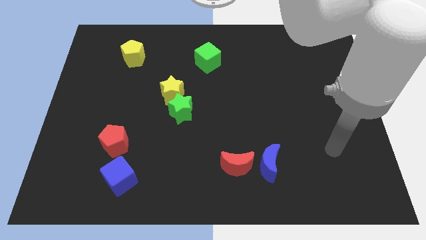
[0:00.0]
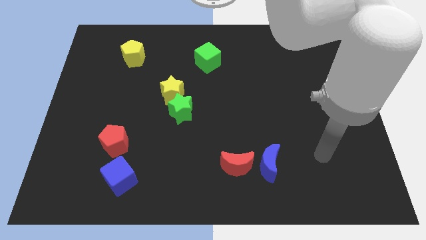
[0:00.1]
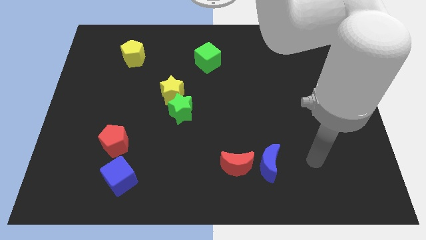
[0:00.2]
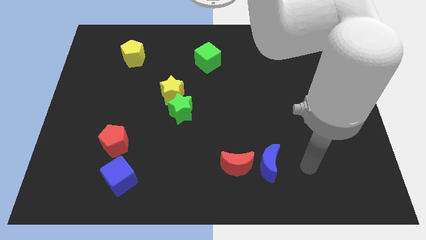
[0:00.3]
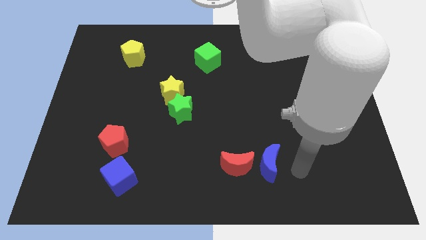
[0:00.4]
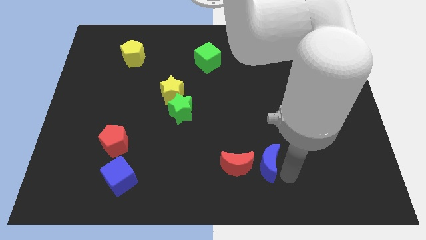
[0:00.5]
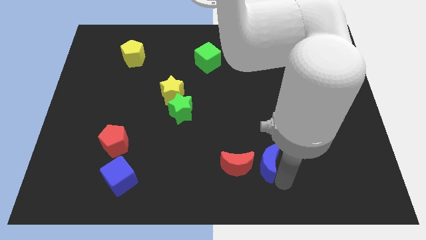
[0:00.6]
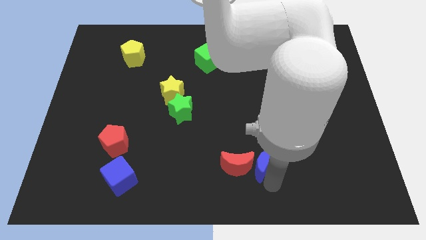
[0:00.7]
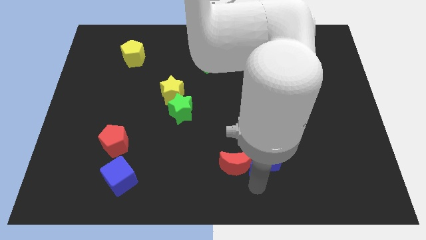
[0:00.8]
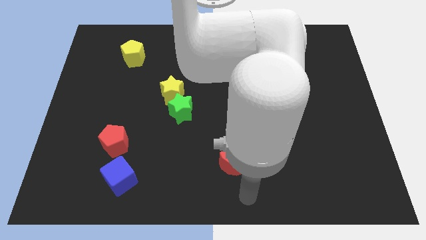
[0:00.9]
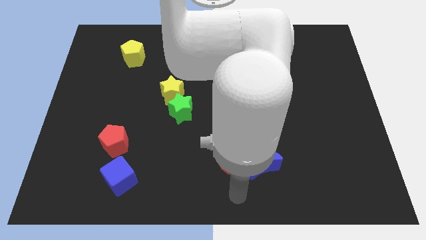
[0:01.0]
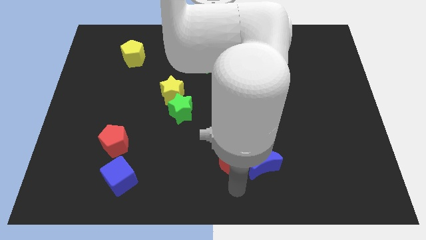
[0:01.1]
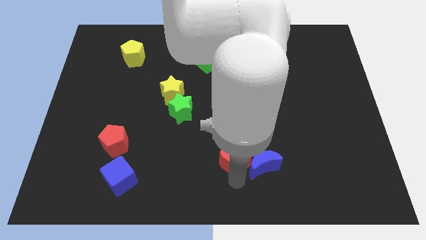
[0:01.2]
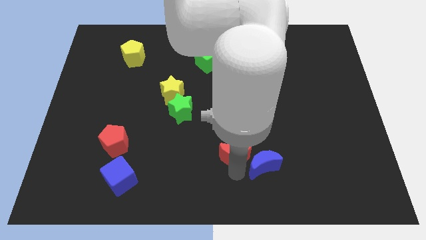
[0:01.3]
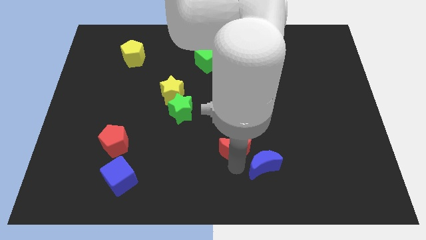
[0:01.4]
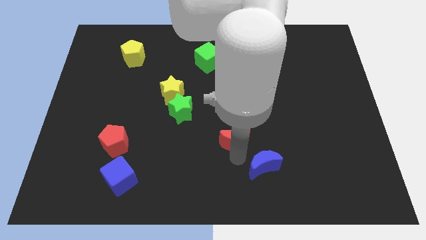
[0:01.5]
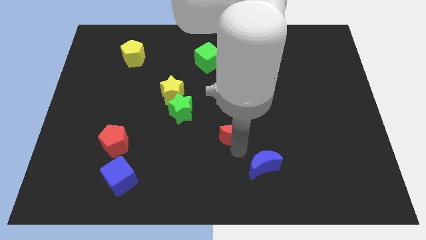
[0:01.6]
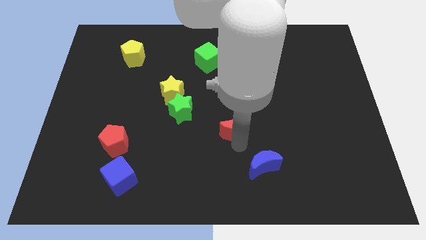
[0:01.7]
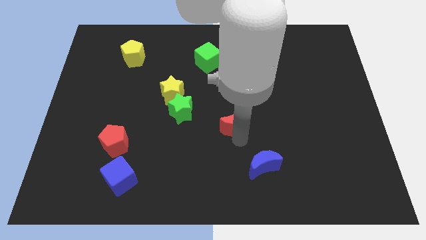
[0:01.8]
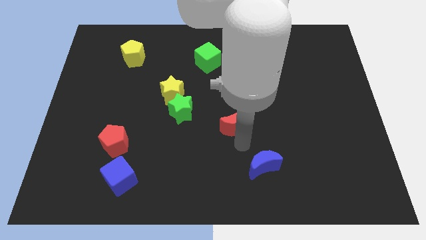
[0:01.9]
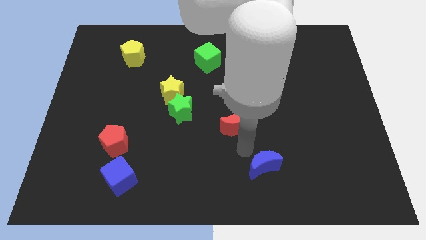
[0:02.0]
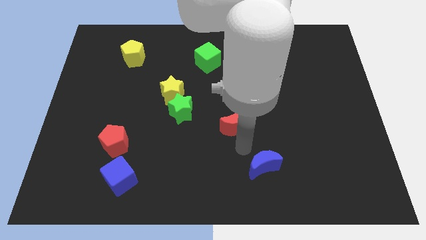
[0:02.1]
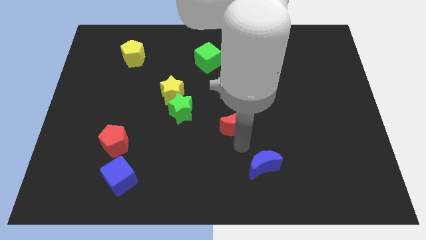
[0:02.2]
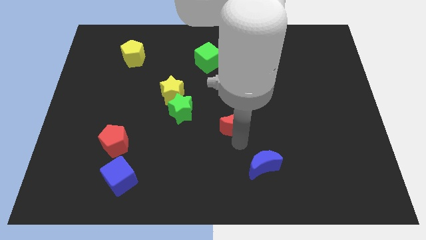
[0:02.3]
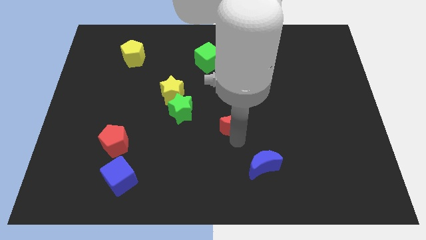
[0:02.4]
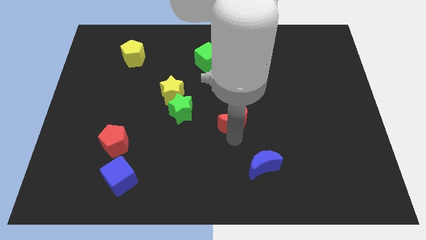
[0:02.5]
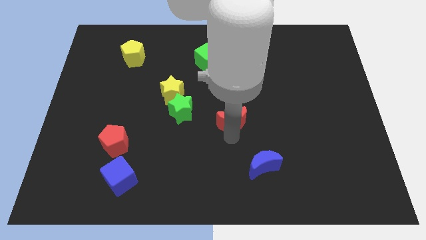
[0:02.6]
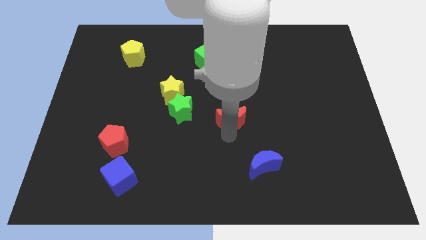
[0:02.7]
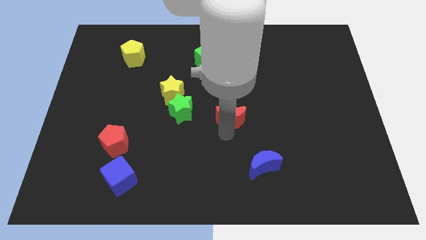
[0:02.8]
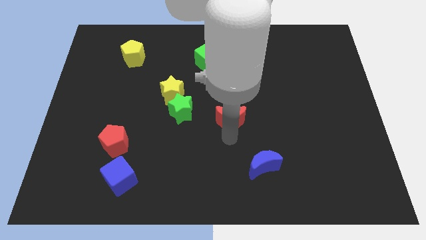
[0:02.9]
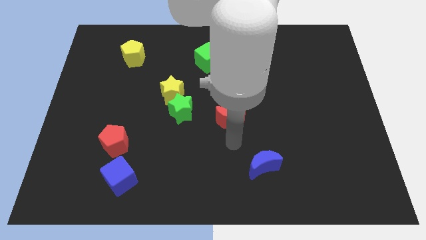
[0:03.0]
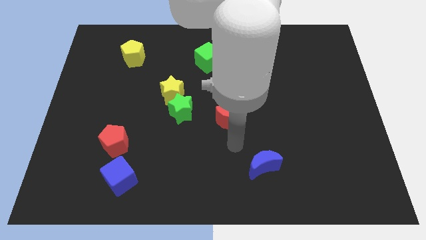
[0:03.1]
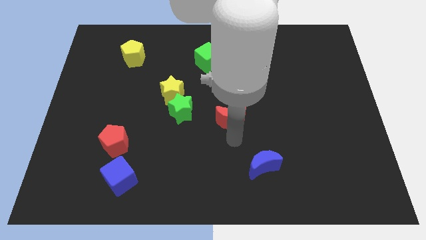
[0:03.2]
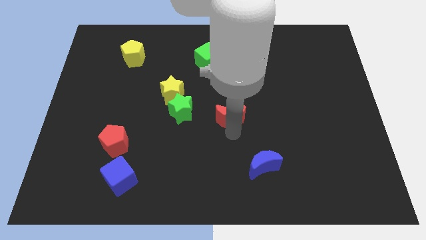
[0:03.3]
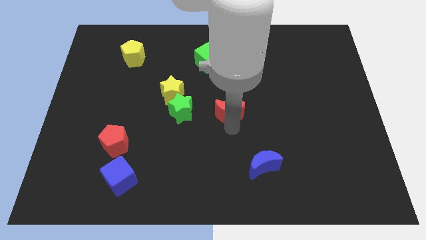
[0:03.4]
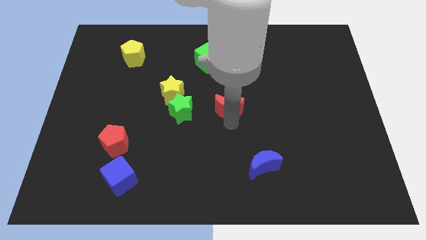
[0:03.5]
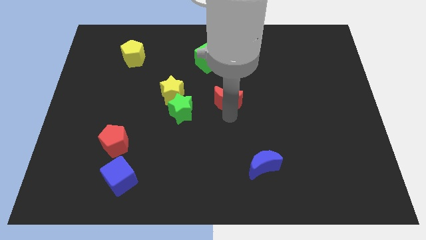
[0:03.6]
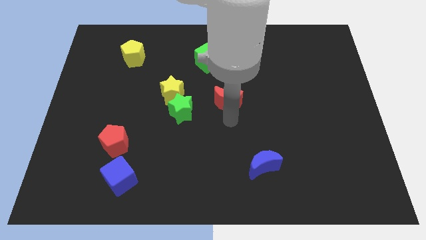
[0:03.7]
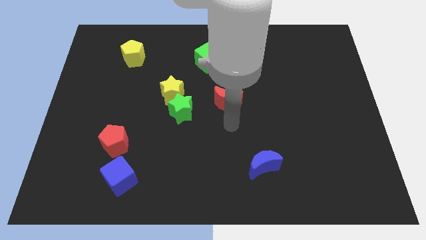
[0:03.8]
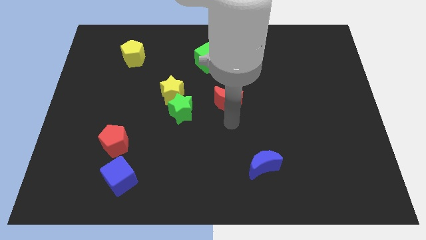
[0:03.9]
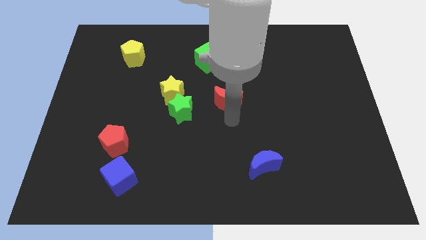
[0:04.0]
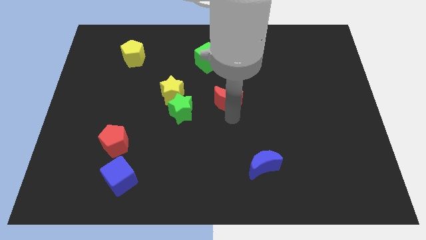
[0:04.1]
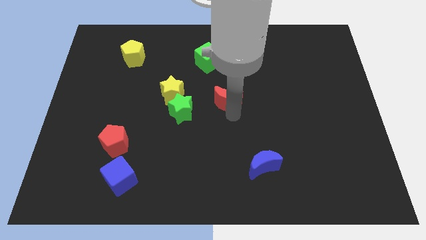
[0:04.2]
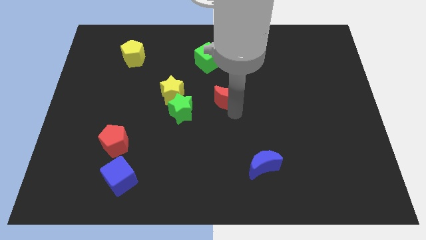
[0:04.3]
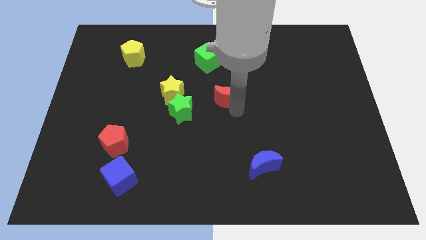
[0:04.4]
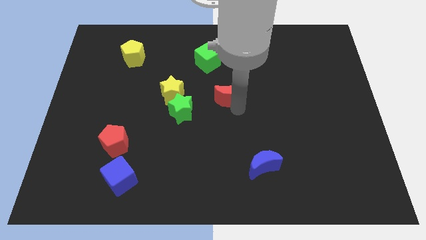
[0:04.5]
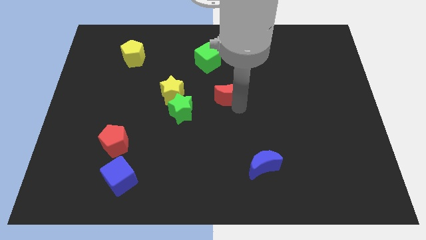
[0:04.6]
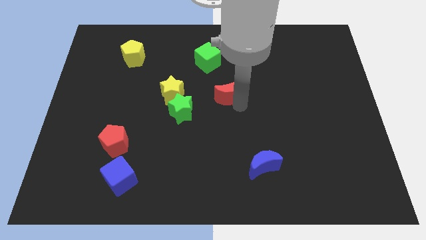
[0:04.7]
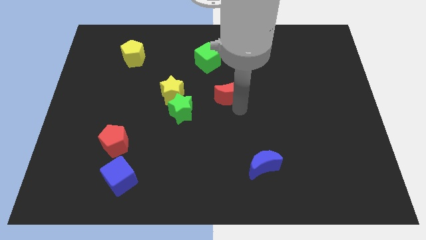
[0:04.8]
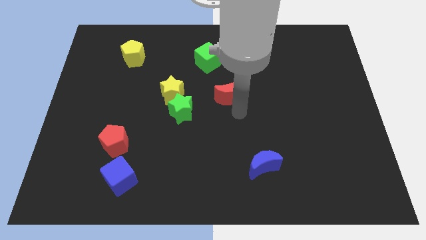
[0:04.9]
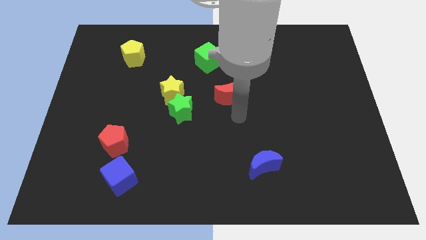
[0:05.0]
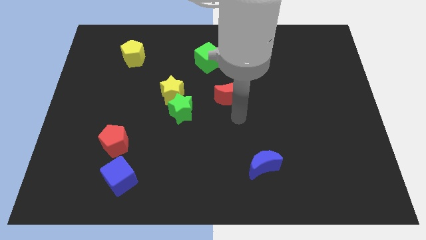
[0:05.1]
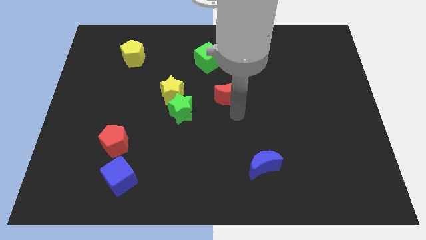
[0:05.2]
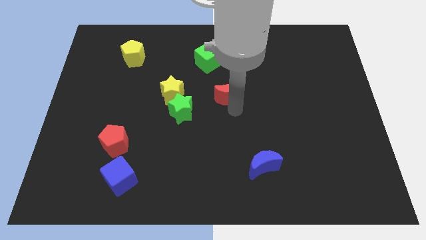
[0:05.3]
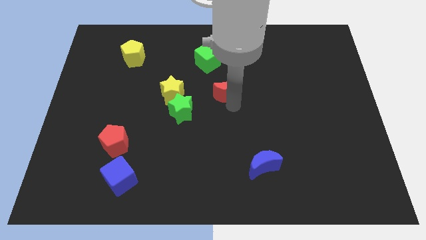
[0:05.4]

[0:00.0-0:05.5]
push the red moon upwards

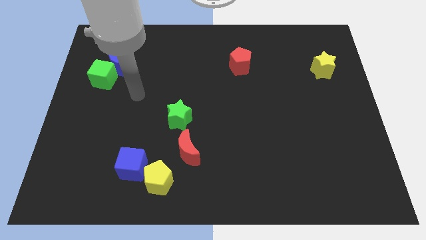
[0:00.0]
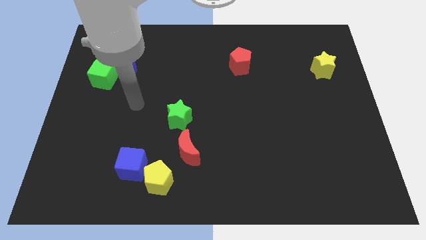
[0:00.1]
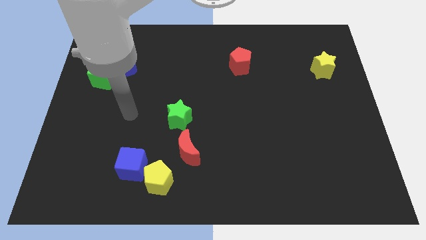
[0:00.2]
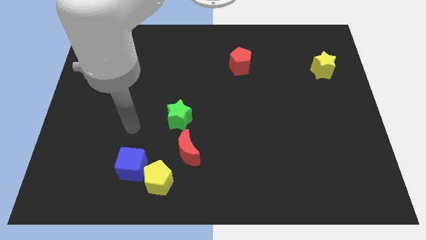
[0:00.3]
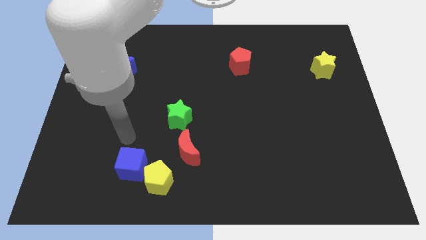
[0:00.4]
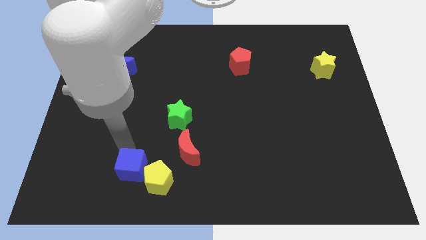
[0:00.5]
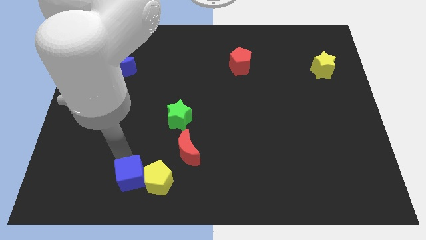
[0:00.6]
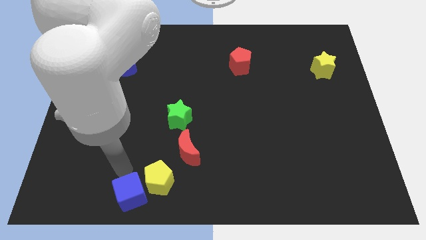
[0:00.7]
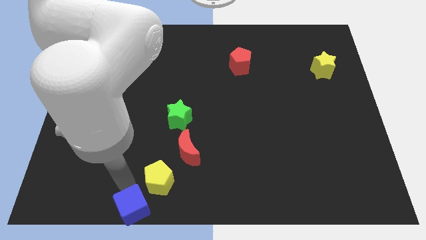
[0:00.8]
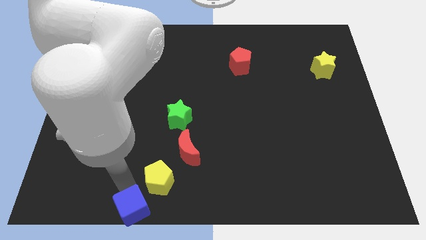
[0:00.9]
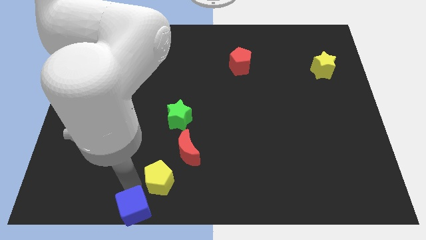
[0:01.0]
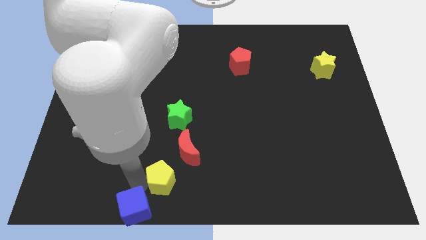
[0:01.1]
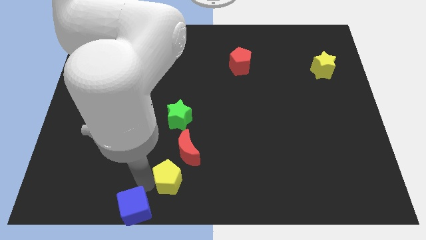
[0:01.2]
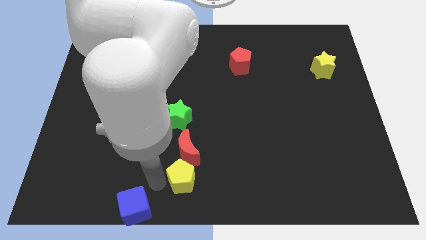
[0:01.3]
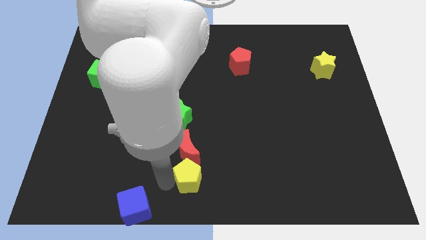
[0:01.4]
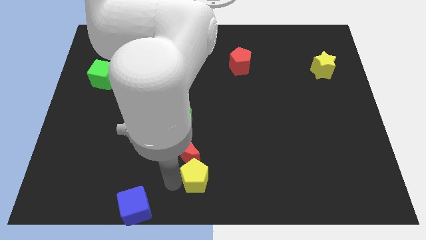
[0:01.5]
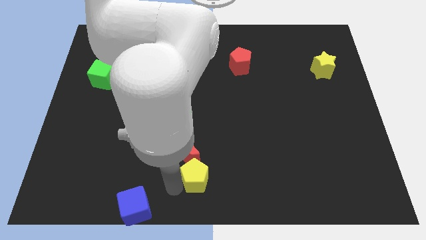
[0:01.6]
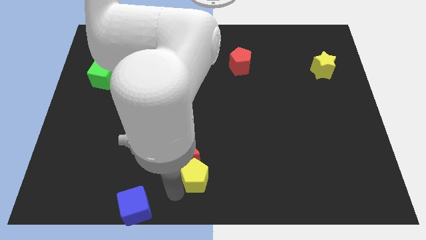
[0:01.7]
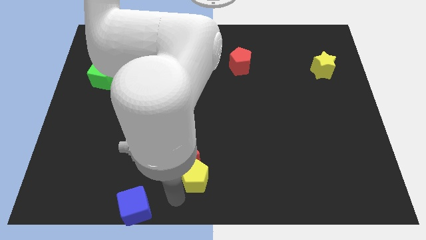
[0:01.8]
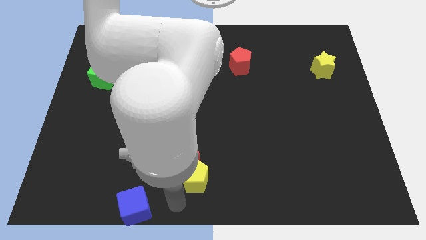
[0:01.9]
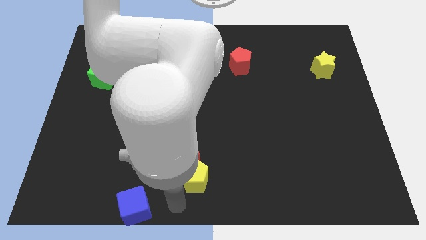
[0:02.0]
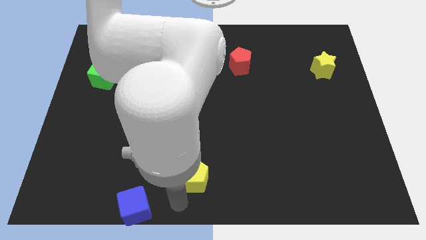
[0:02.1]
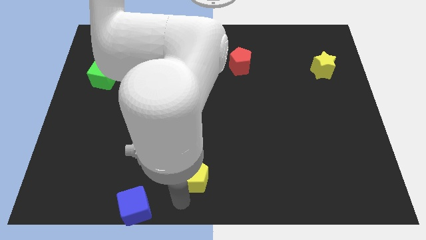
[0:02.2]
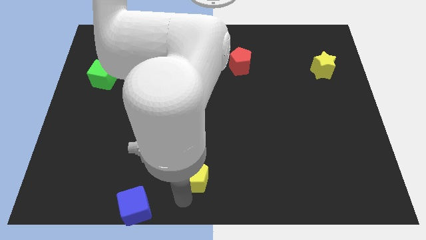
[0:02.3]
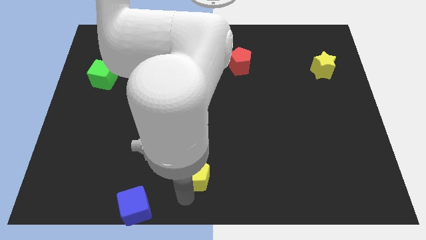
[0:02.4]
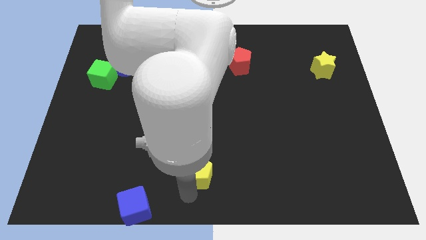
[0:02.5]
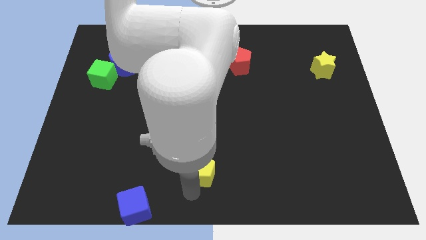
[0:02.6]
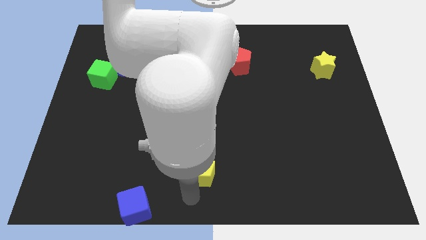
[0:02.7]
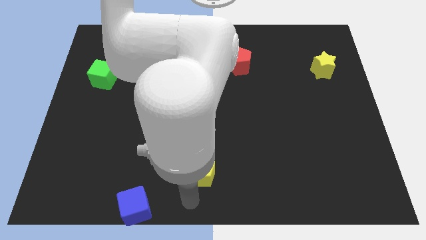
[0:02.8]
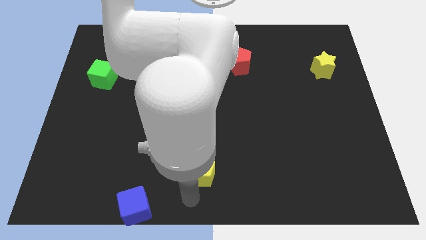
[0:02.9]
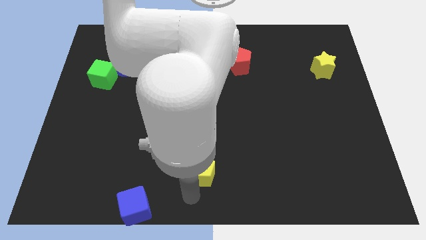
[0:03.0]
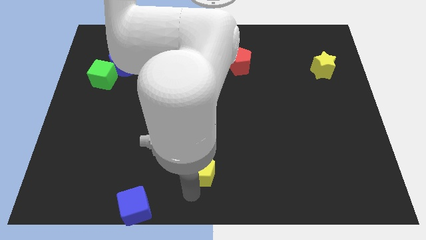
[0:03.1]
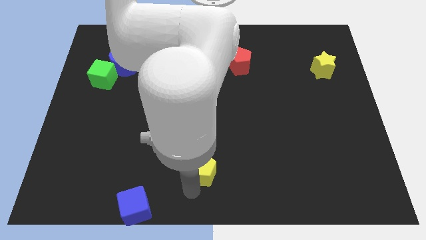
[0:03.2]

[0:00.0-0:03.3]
slightly move the yellow pentagon diagonally up and to the right
